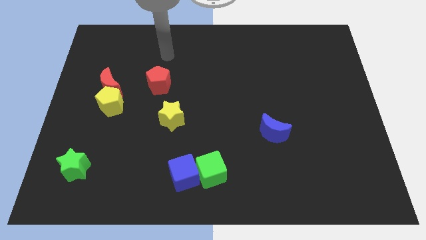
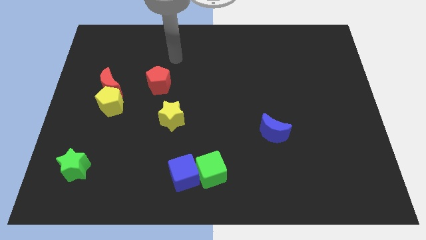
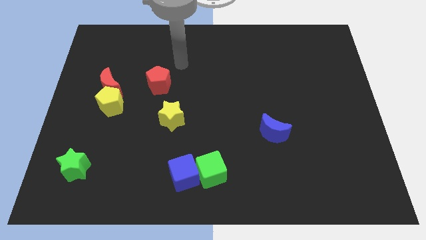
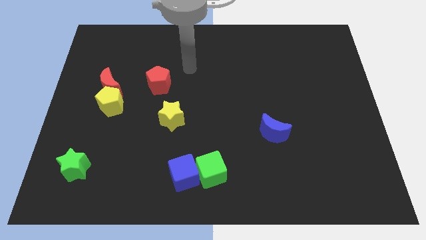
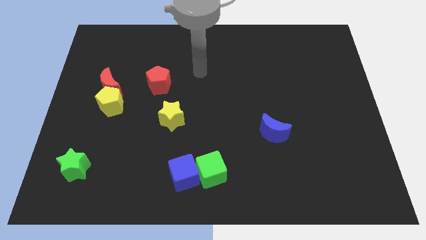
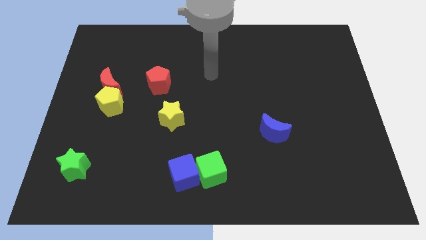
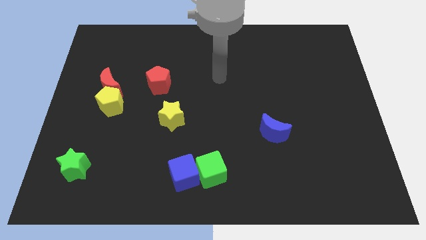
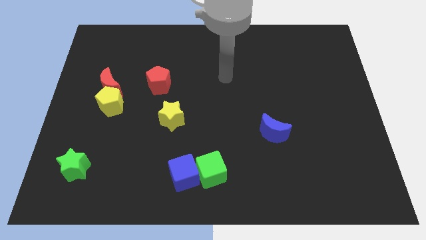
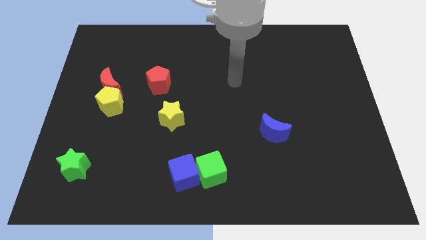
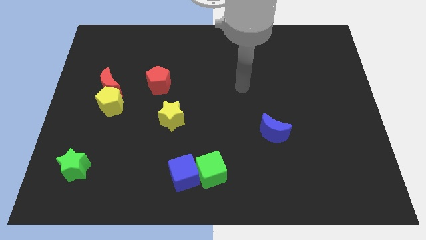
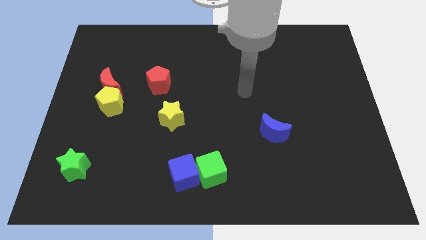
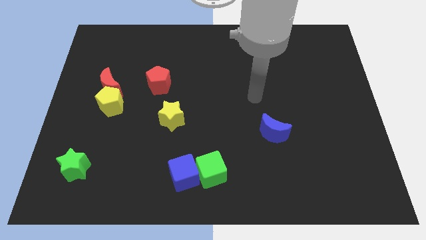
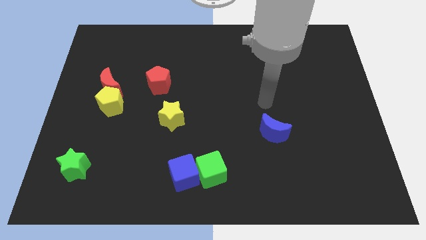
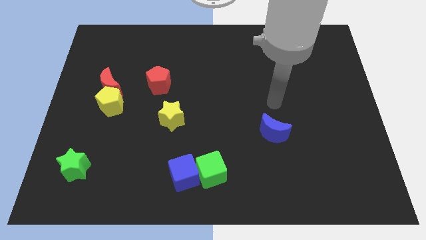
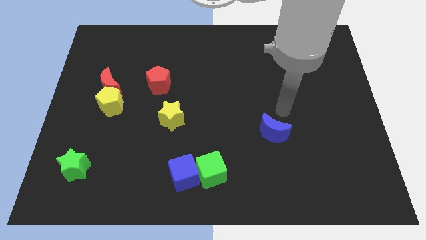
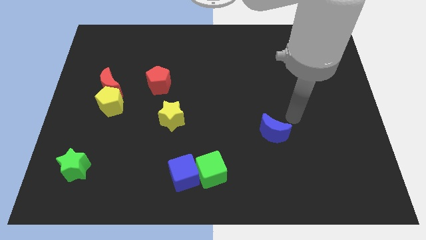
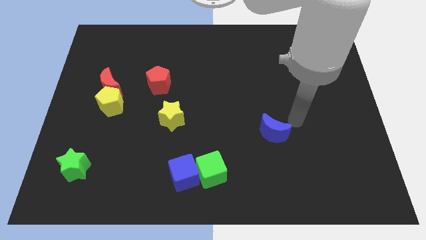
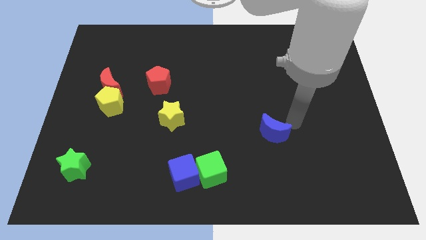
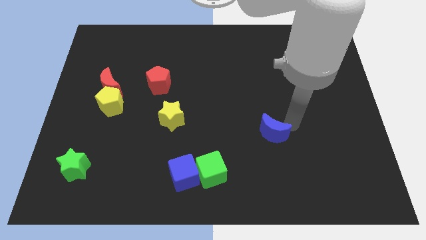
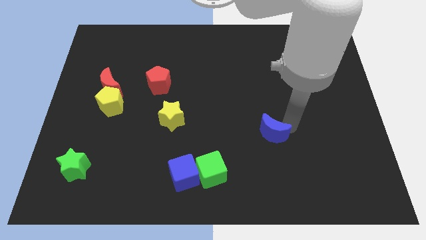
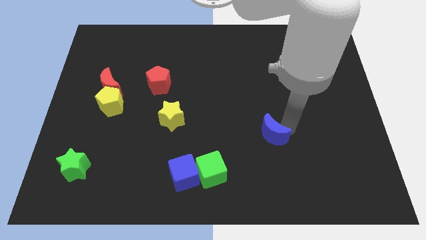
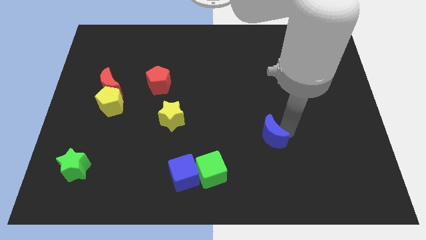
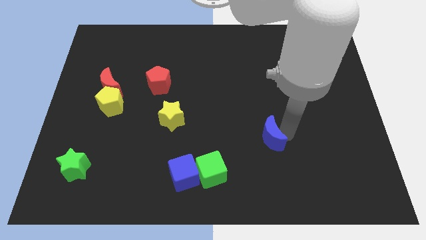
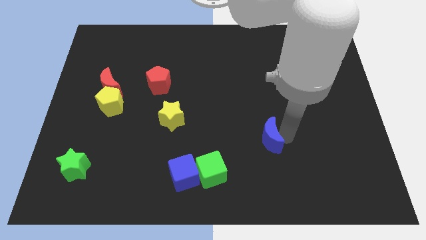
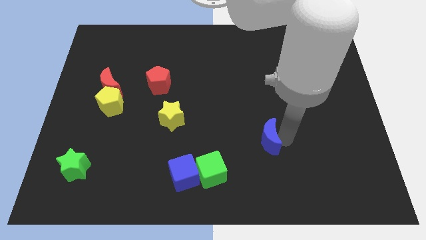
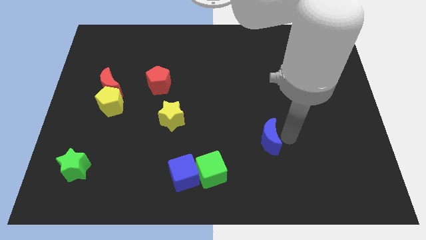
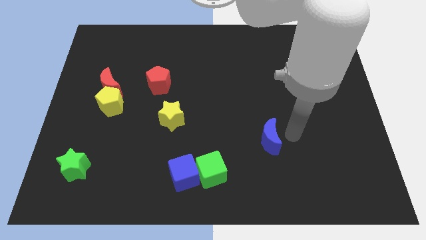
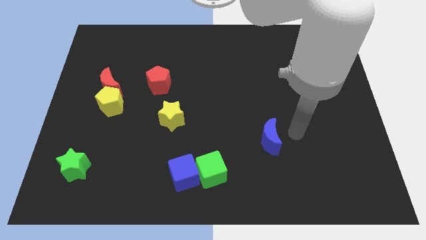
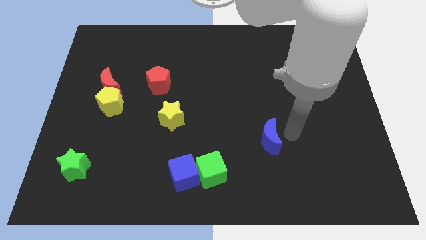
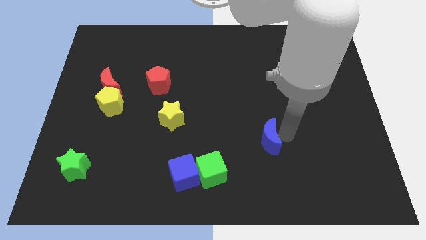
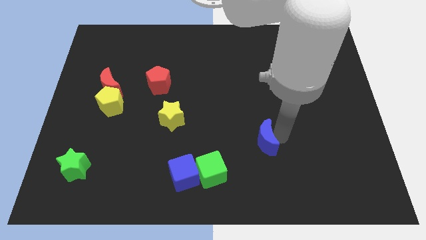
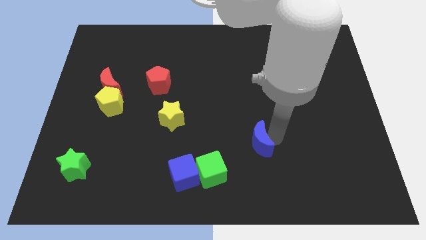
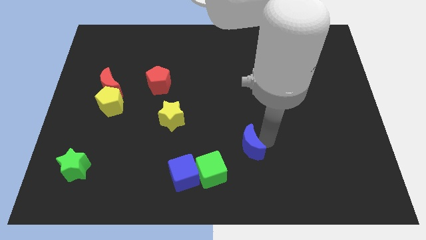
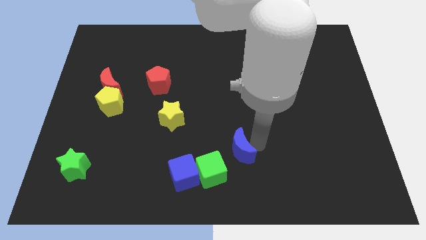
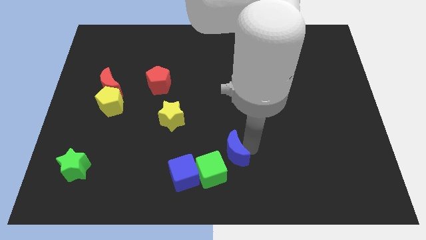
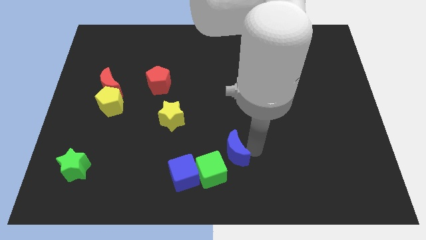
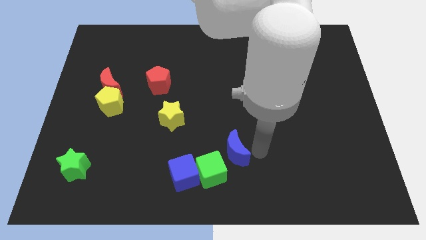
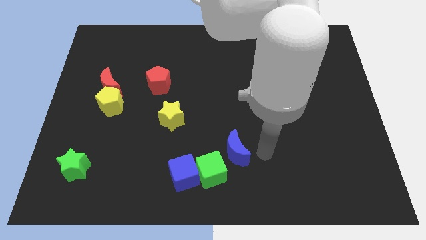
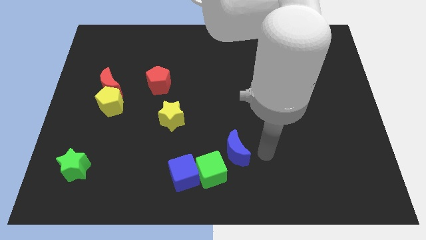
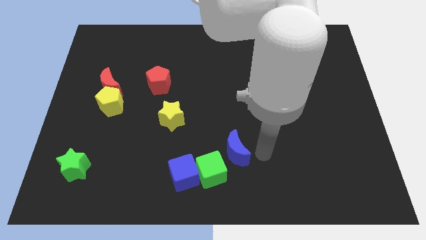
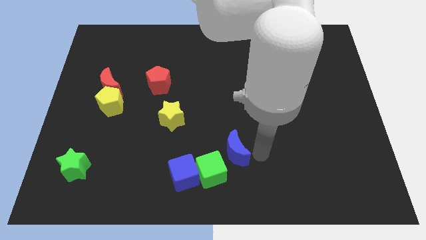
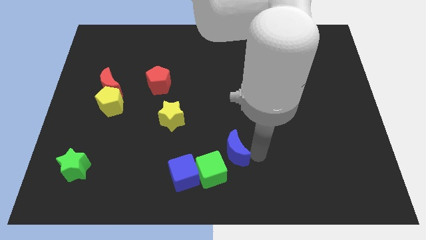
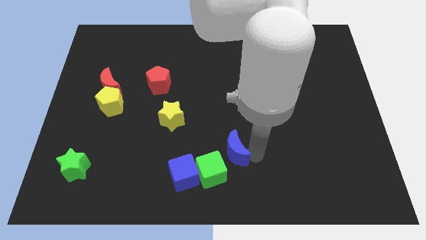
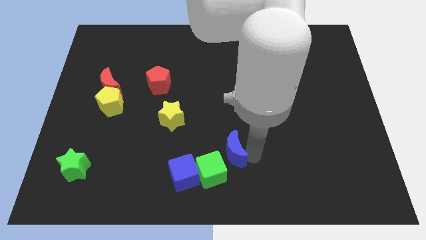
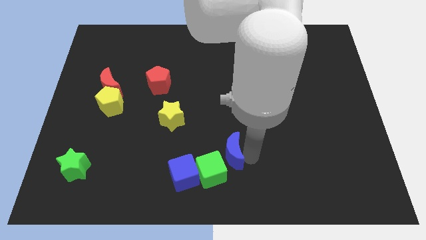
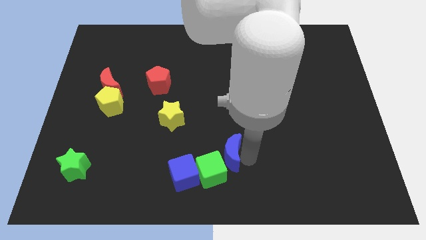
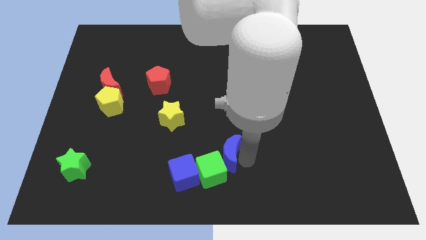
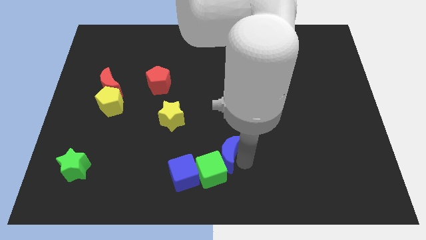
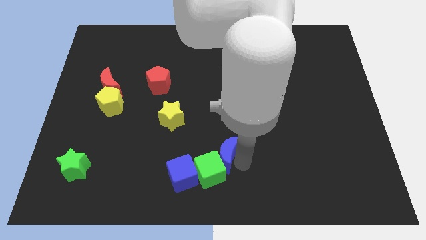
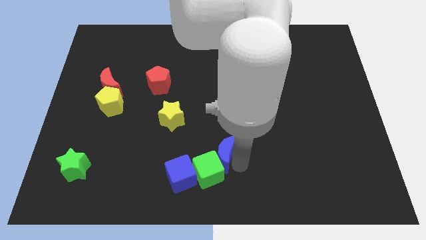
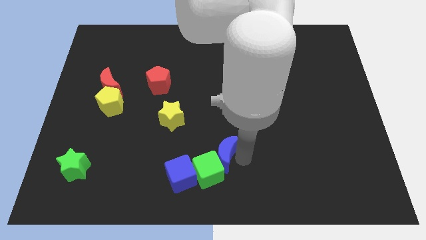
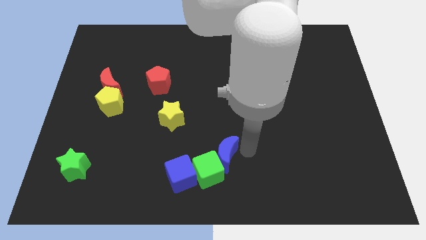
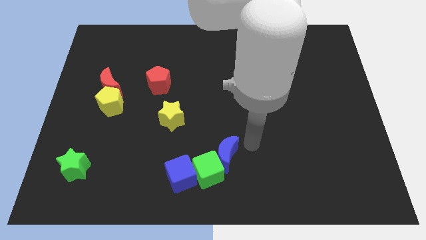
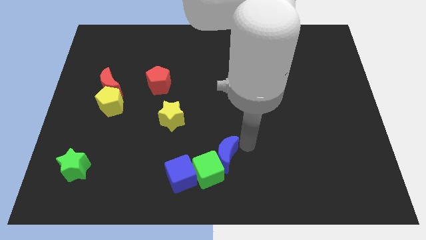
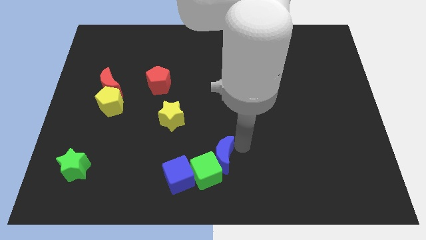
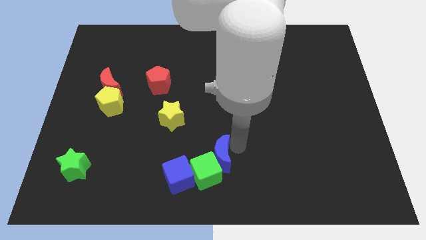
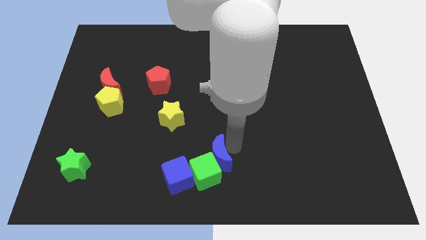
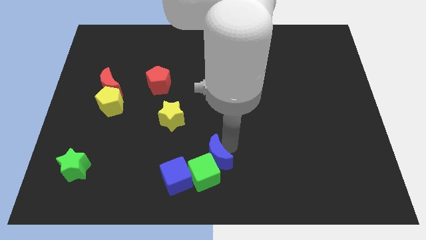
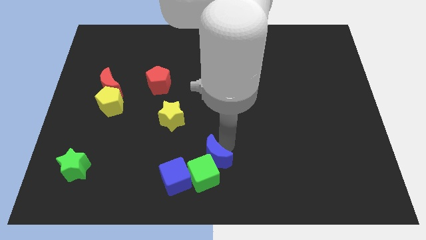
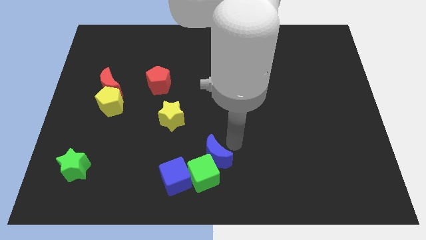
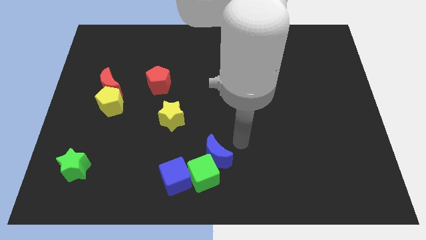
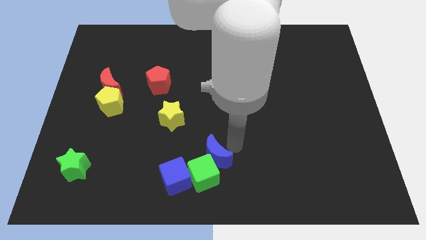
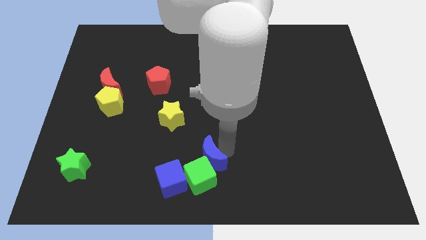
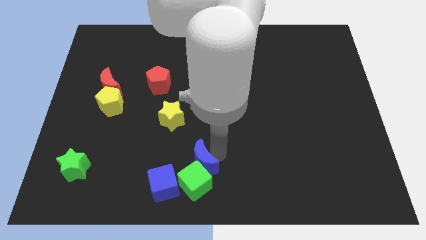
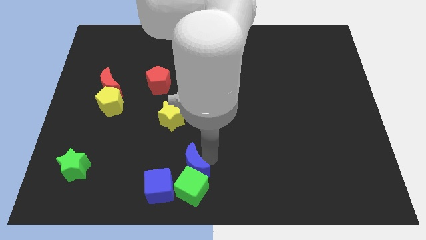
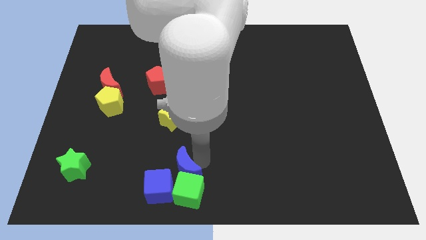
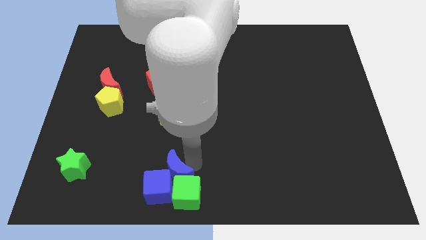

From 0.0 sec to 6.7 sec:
slide the blue moon close to the blue cube

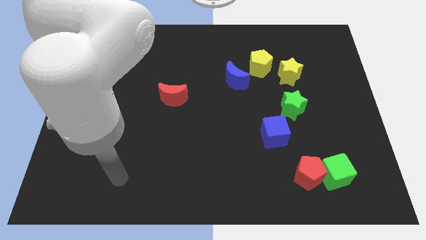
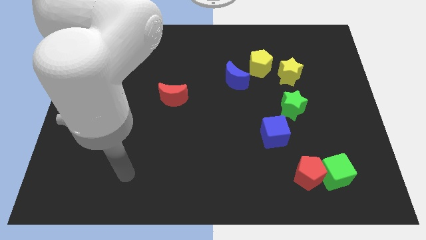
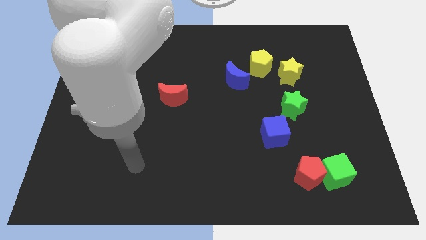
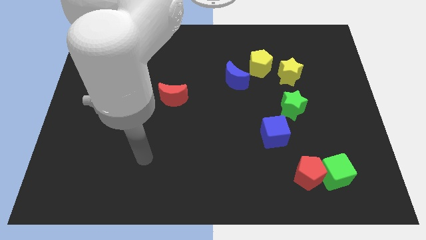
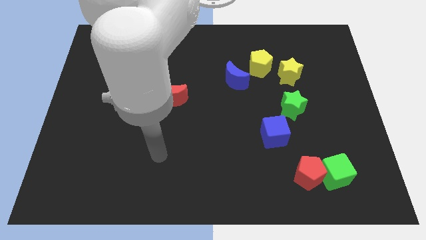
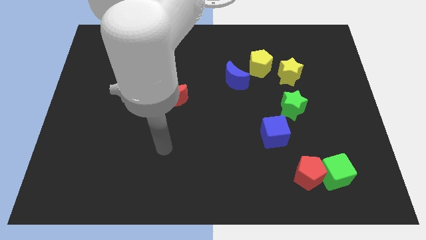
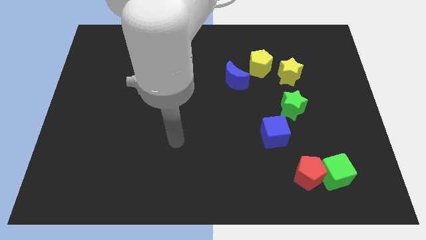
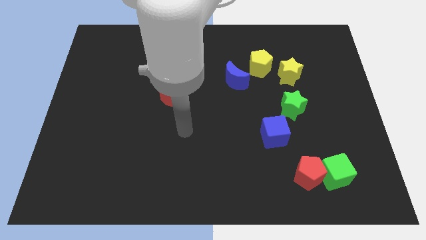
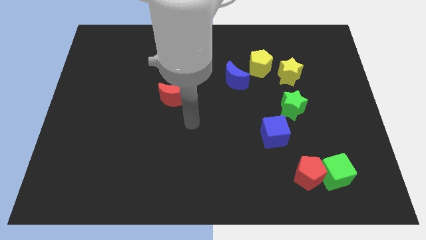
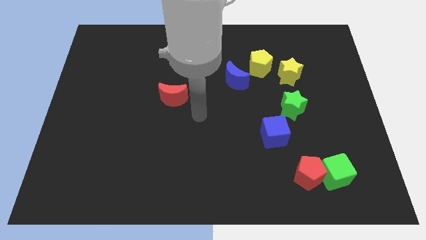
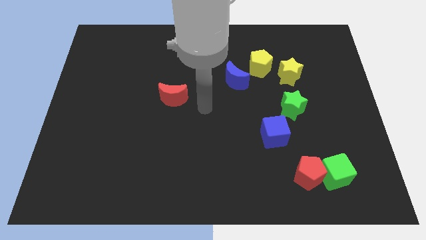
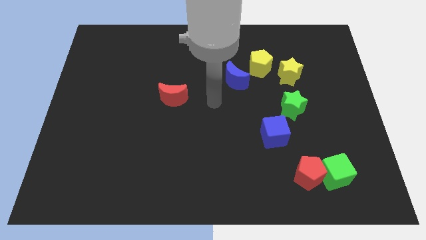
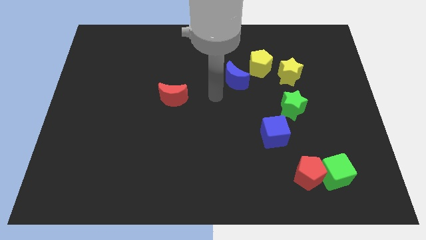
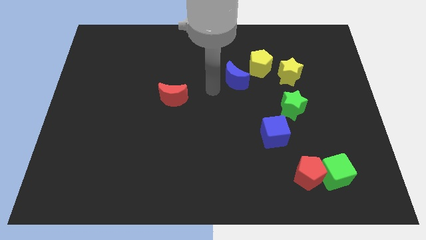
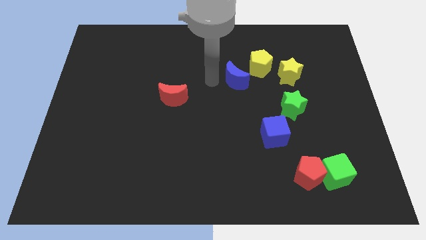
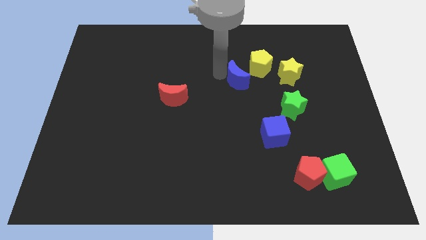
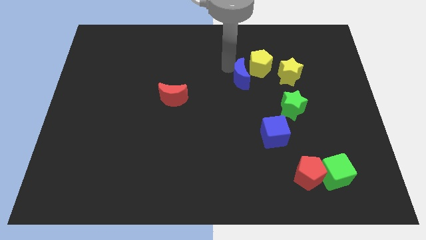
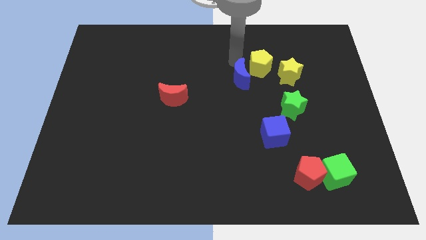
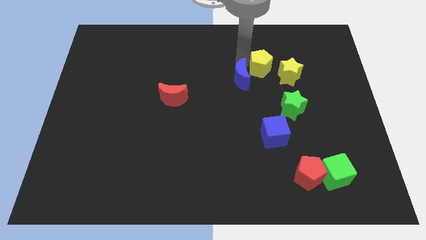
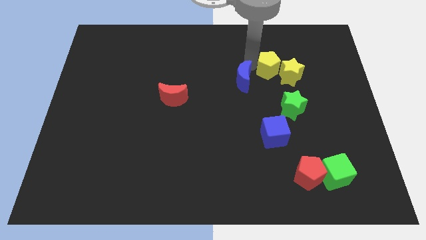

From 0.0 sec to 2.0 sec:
move the yellow pentagon towards the yellow star
